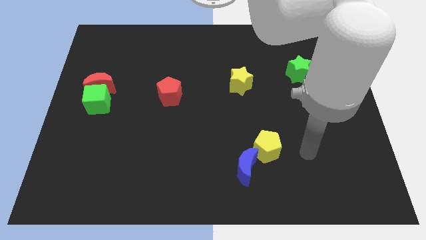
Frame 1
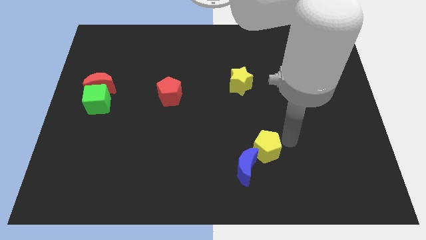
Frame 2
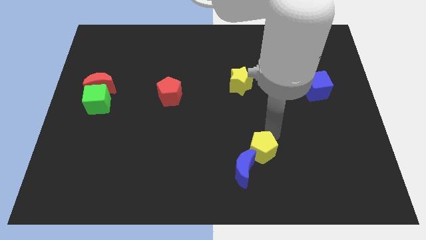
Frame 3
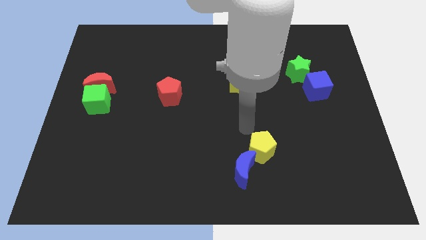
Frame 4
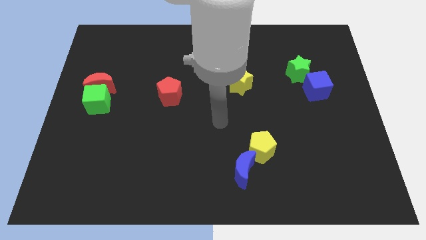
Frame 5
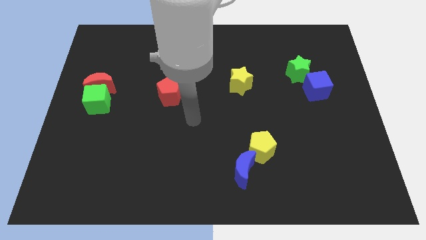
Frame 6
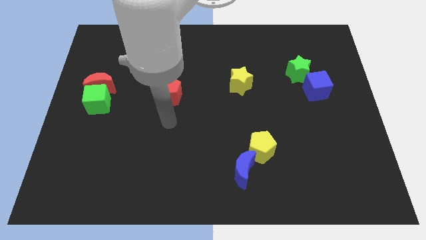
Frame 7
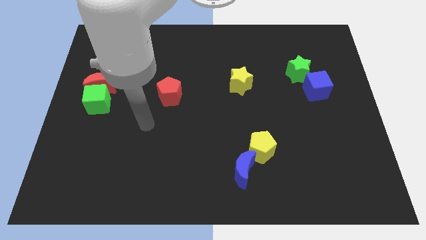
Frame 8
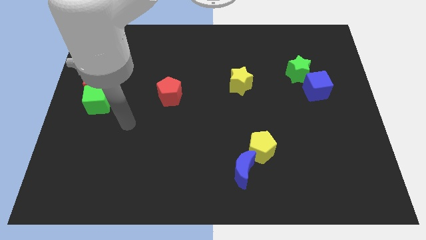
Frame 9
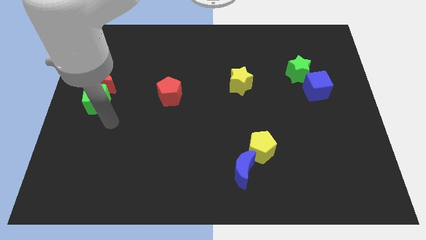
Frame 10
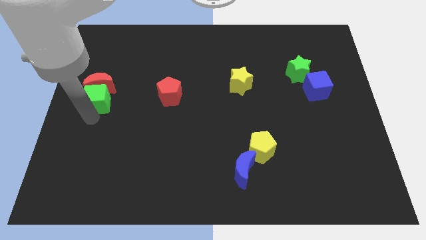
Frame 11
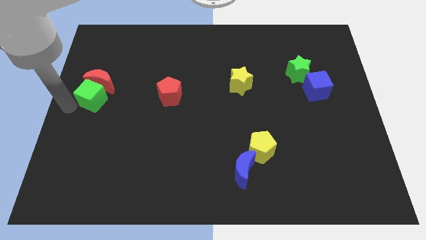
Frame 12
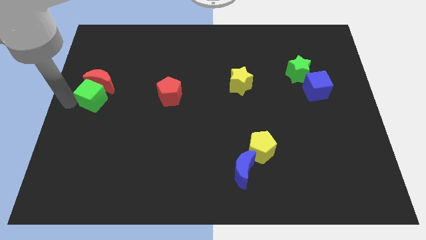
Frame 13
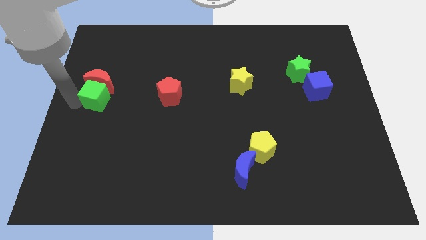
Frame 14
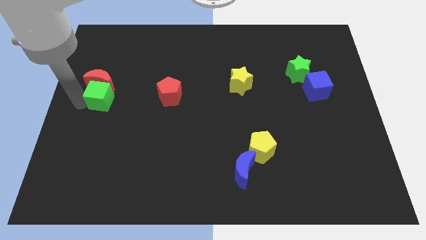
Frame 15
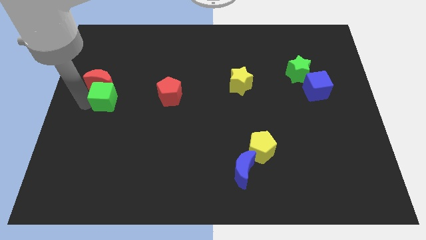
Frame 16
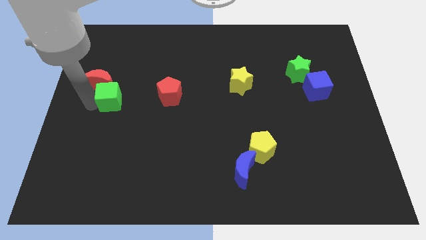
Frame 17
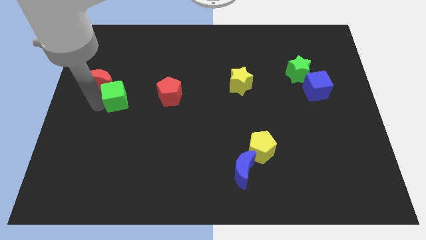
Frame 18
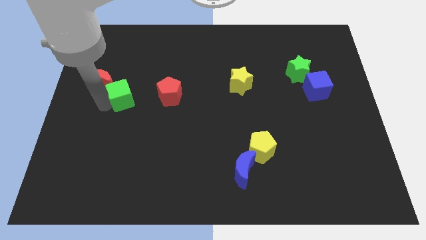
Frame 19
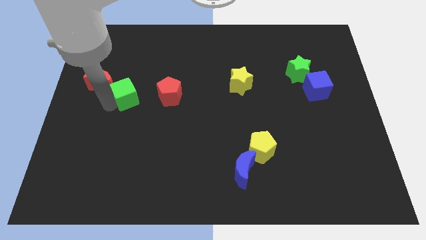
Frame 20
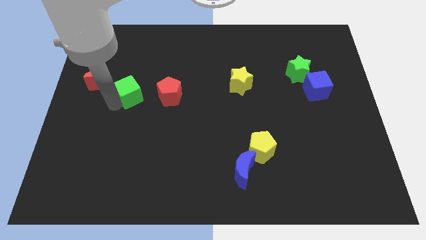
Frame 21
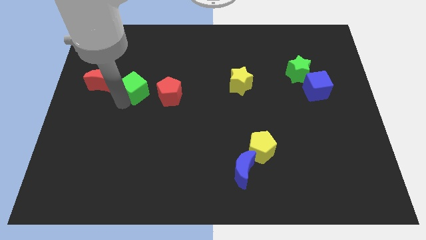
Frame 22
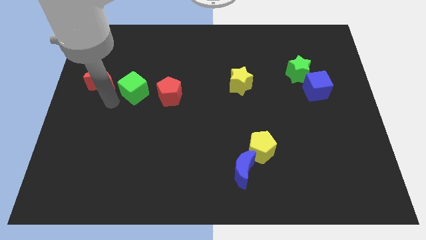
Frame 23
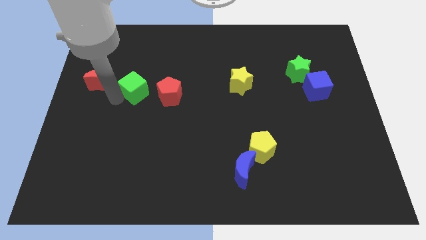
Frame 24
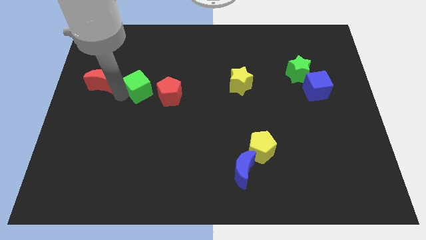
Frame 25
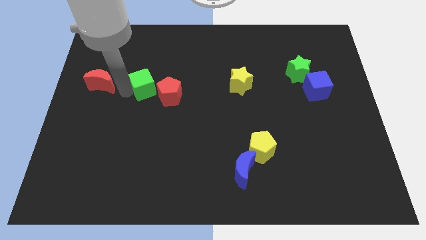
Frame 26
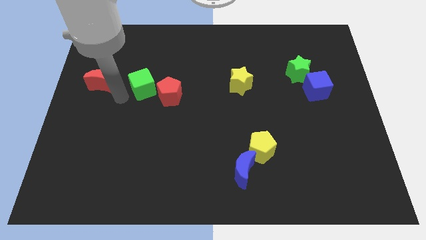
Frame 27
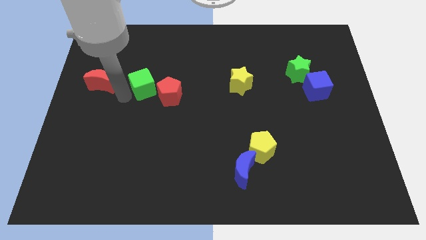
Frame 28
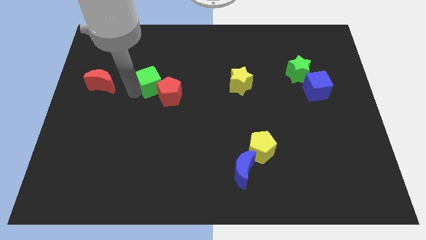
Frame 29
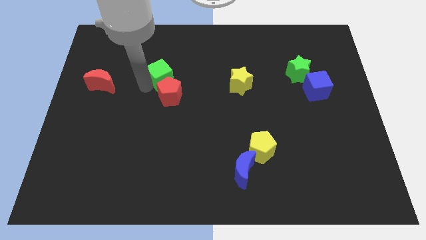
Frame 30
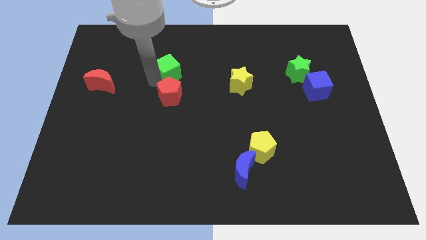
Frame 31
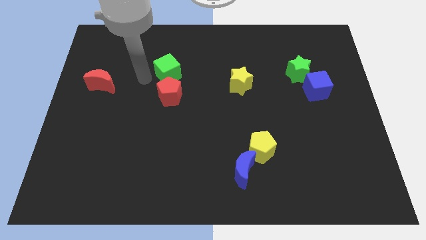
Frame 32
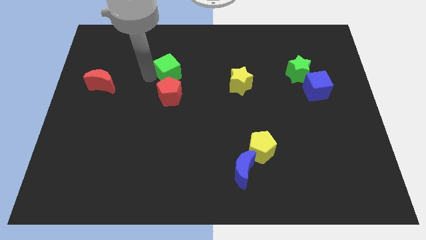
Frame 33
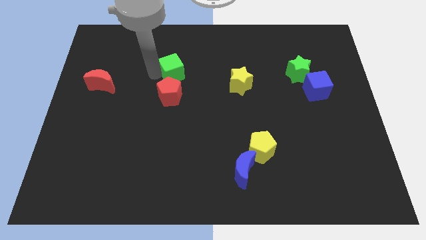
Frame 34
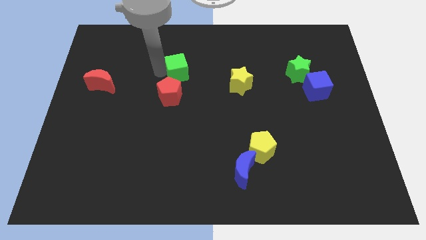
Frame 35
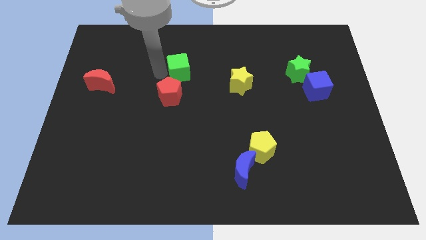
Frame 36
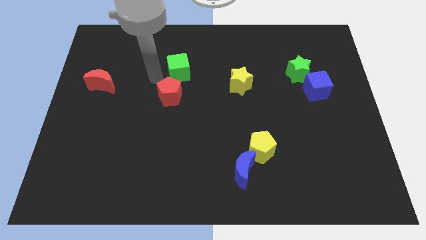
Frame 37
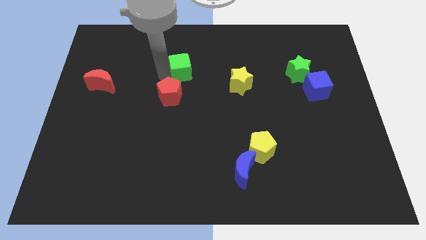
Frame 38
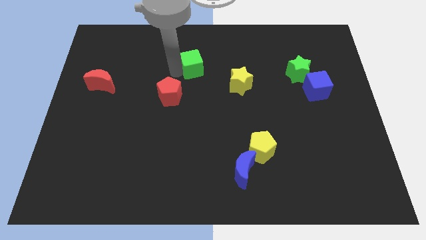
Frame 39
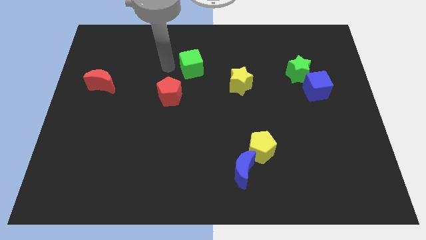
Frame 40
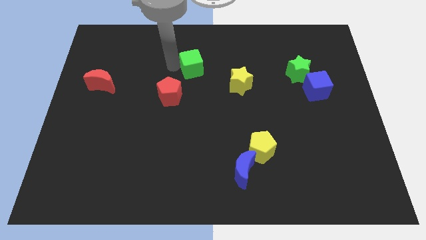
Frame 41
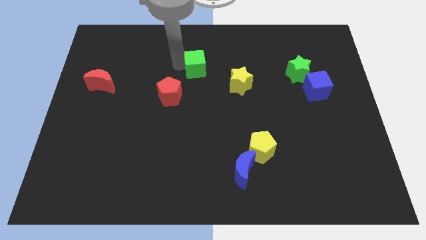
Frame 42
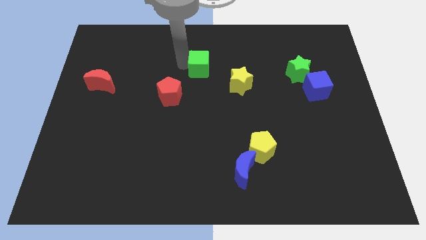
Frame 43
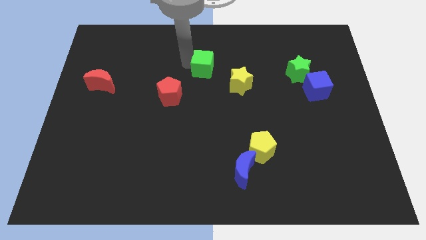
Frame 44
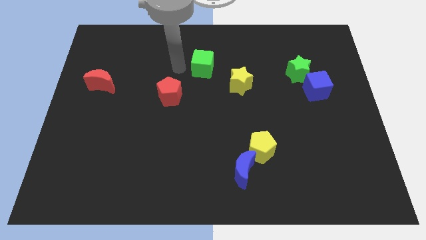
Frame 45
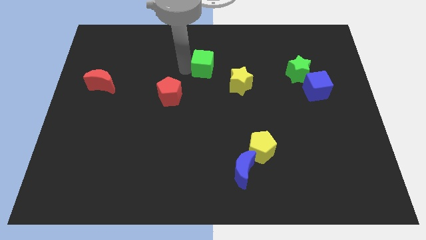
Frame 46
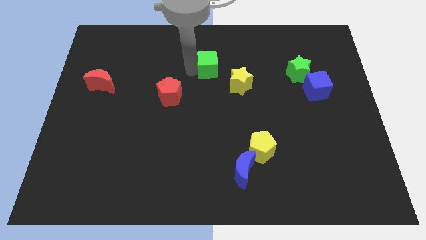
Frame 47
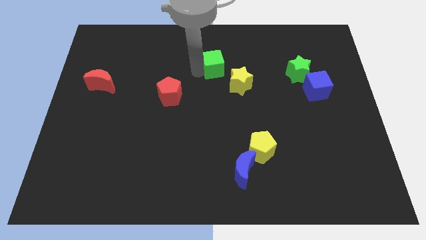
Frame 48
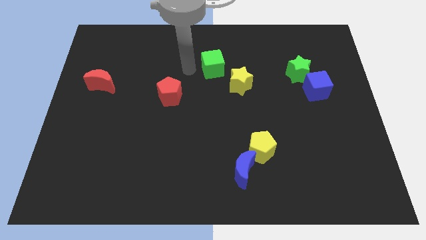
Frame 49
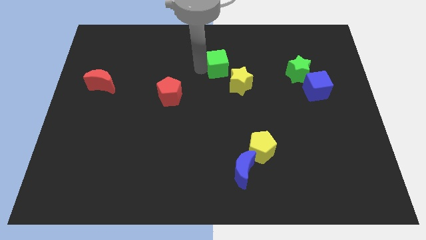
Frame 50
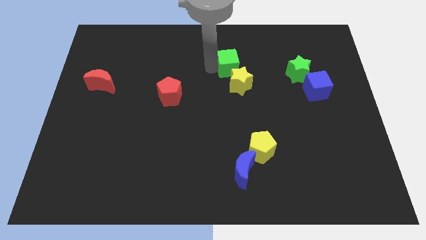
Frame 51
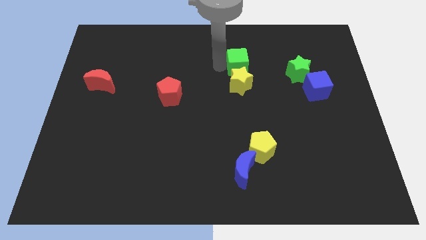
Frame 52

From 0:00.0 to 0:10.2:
slide the green cube to the left of the green star

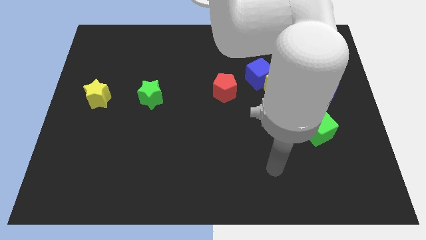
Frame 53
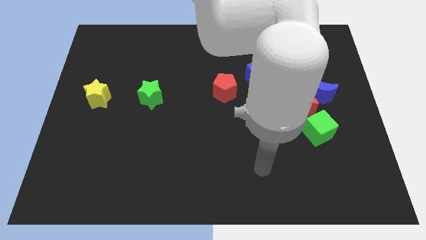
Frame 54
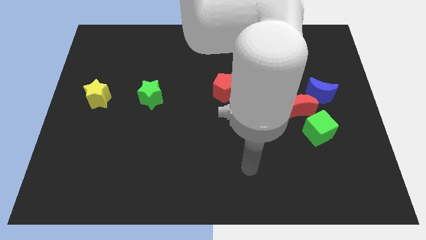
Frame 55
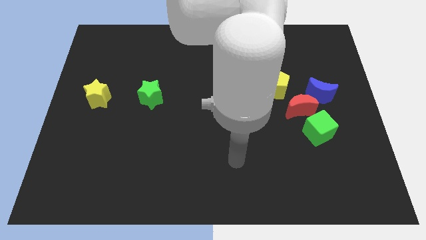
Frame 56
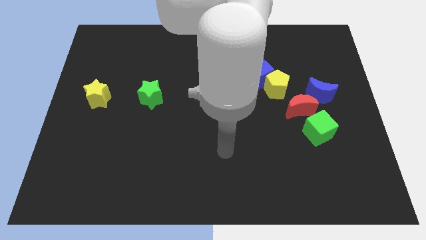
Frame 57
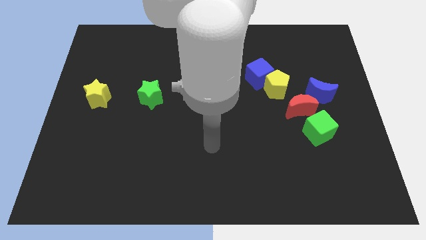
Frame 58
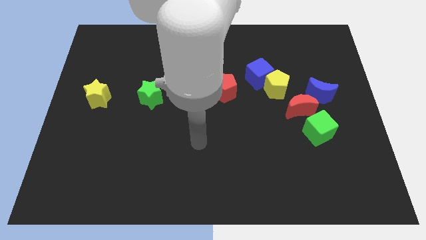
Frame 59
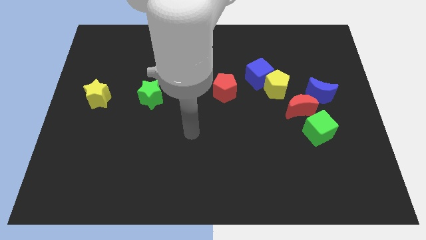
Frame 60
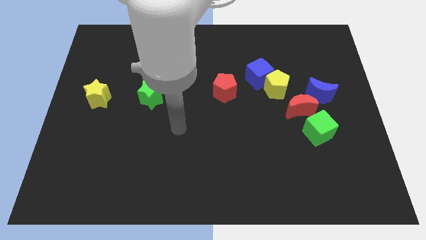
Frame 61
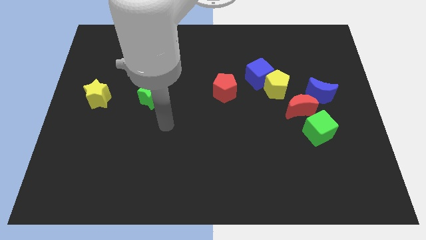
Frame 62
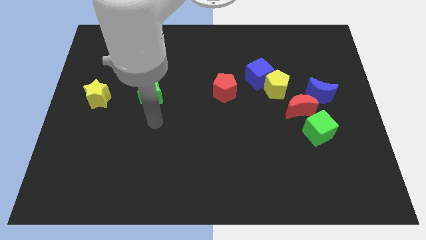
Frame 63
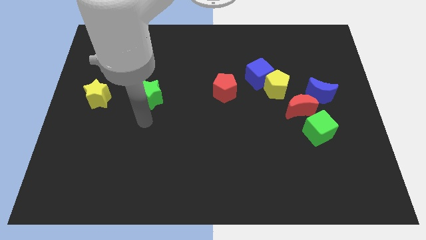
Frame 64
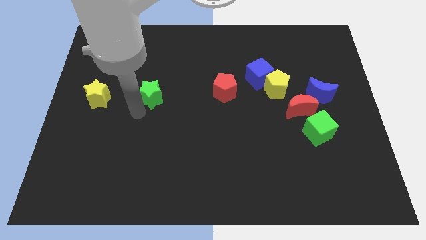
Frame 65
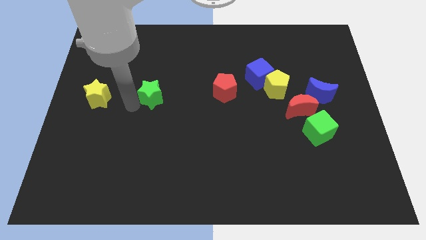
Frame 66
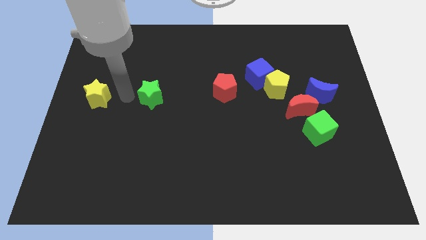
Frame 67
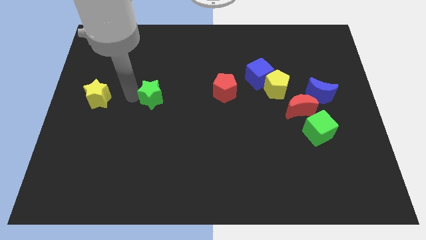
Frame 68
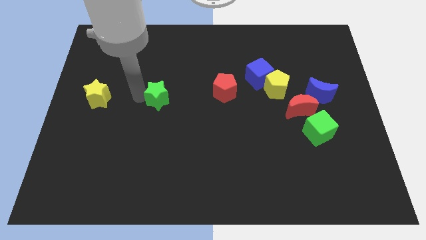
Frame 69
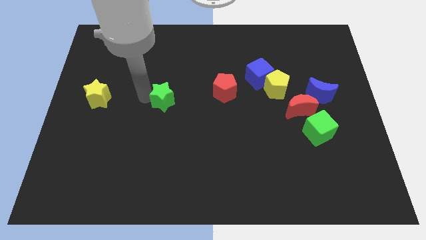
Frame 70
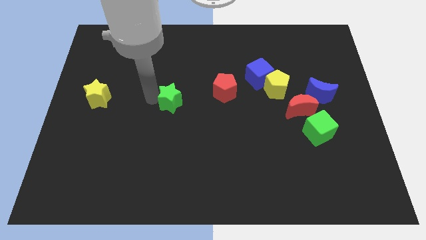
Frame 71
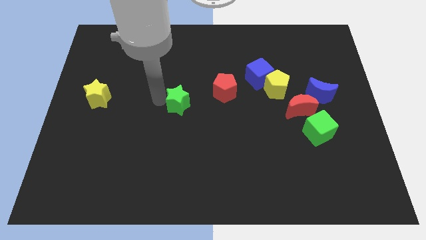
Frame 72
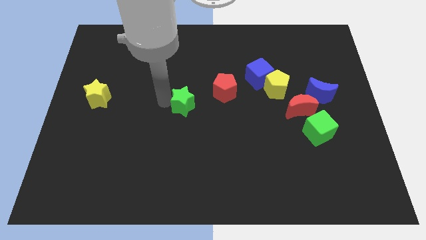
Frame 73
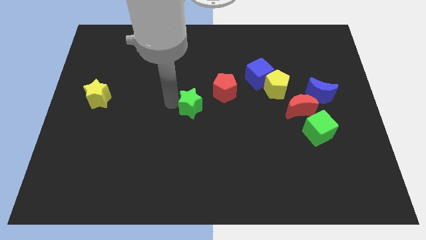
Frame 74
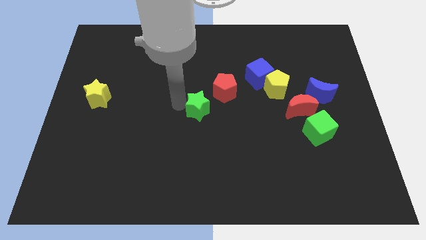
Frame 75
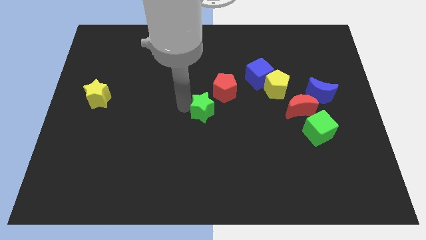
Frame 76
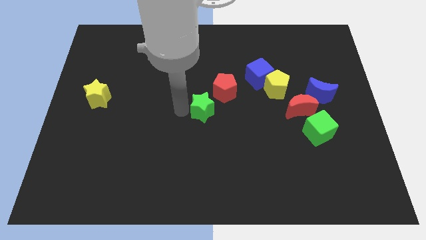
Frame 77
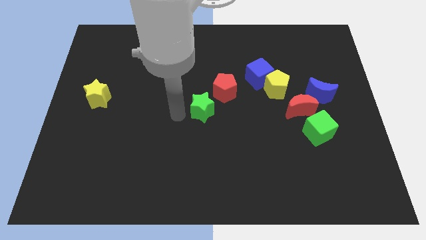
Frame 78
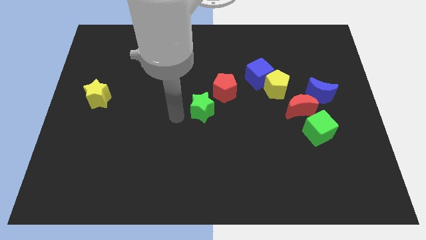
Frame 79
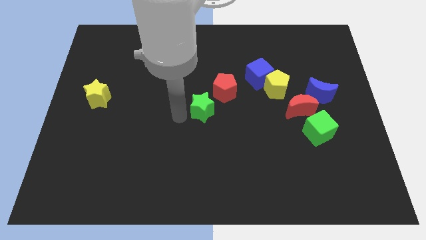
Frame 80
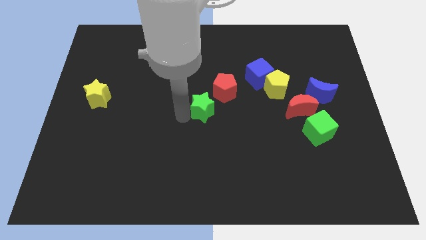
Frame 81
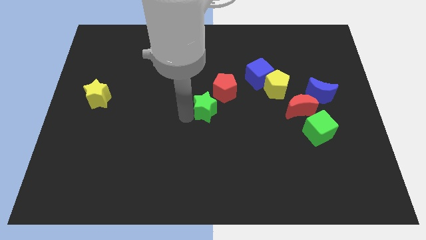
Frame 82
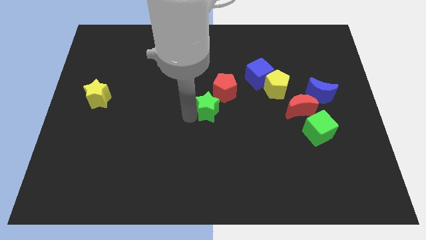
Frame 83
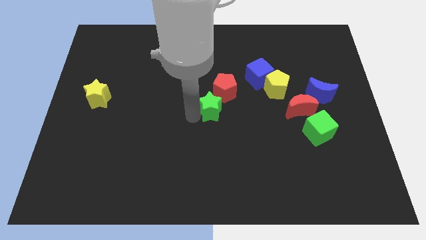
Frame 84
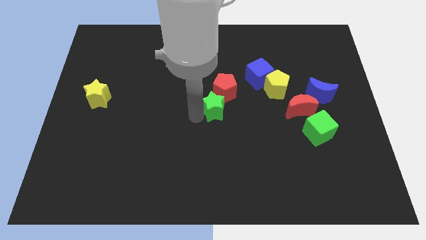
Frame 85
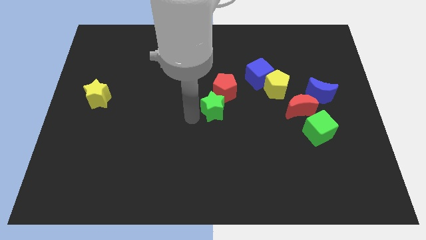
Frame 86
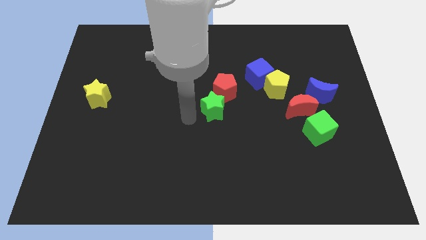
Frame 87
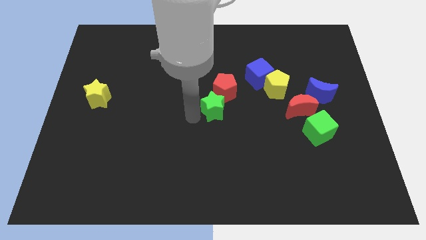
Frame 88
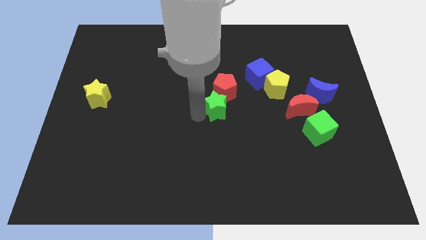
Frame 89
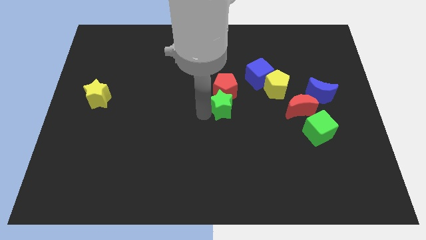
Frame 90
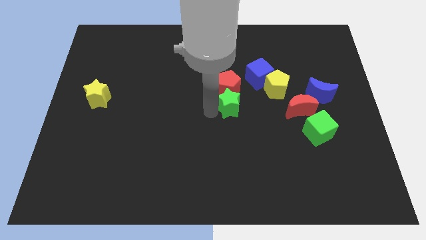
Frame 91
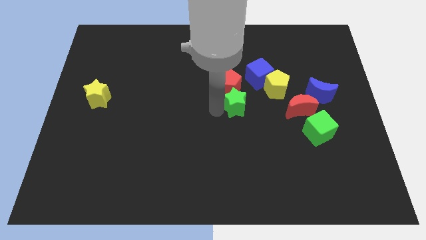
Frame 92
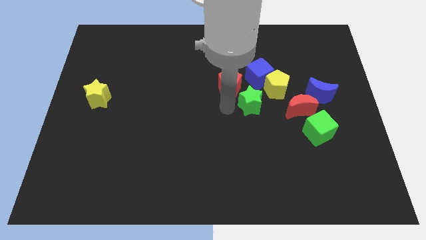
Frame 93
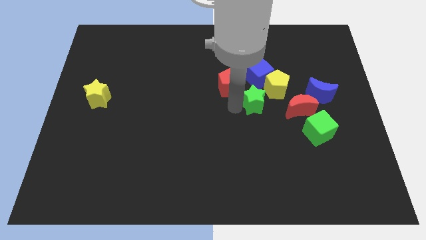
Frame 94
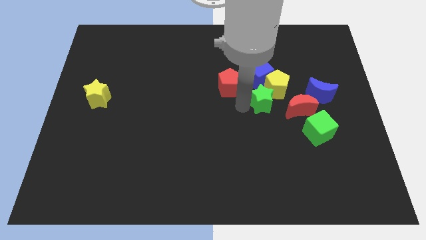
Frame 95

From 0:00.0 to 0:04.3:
put the green star to the left side of the blue moon
